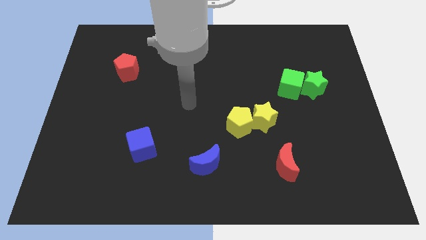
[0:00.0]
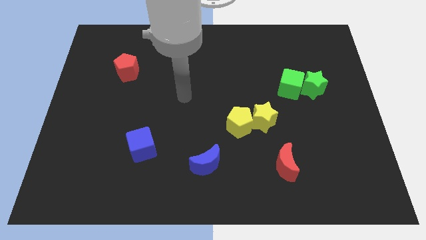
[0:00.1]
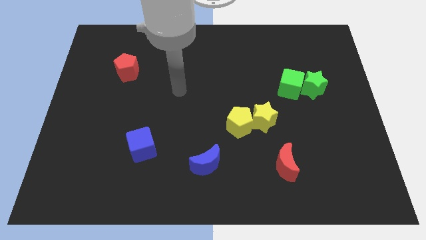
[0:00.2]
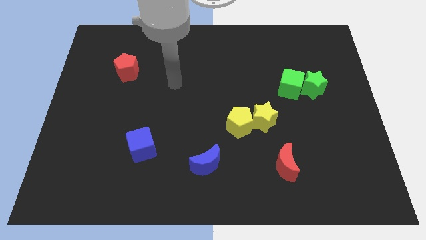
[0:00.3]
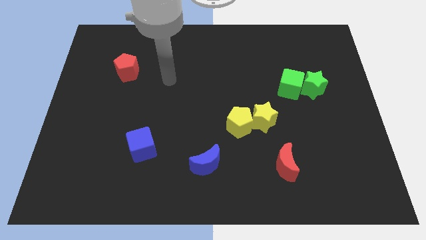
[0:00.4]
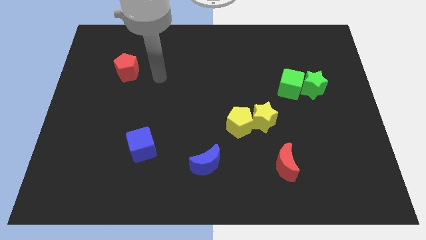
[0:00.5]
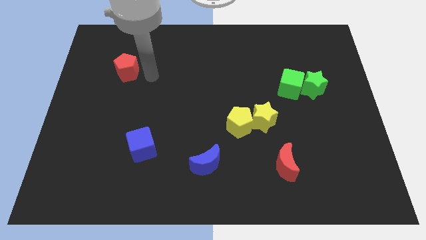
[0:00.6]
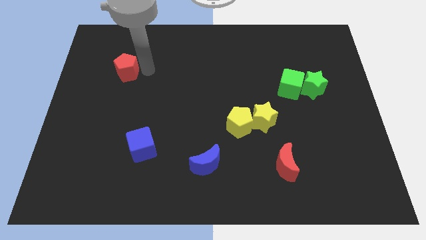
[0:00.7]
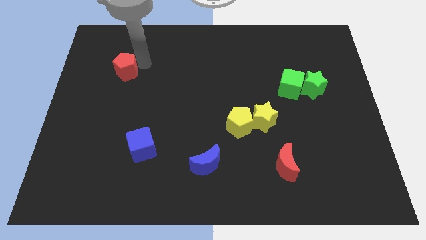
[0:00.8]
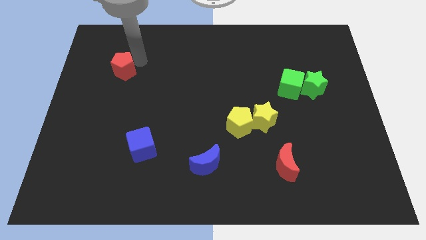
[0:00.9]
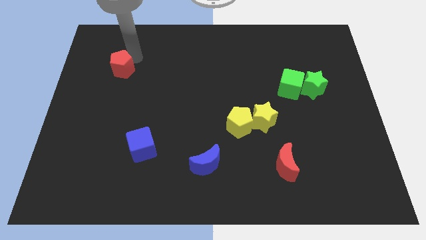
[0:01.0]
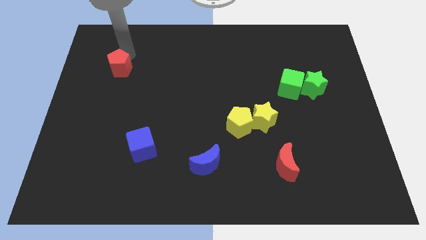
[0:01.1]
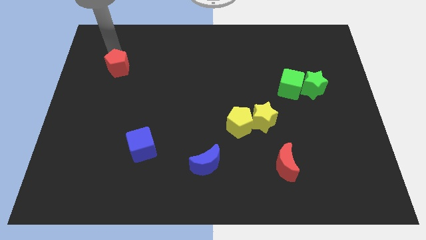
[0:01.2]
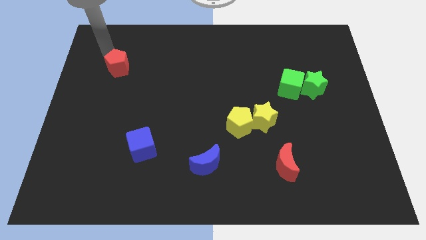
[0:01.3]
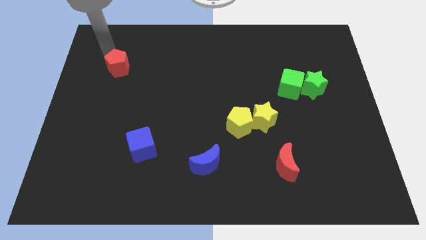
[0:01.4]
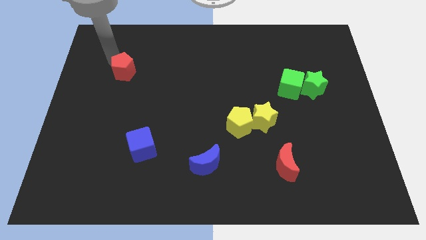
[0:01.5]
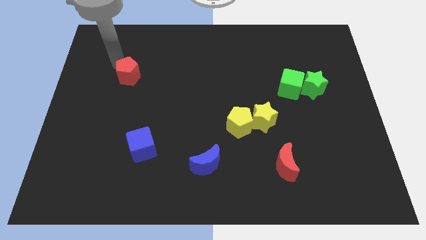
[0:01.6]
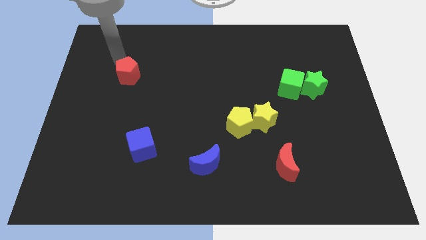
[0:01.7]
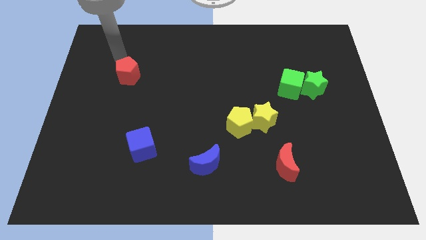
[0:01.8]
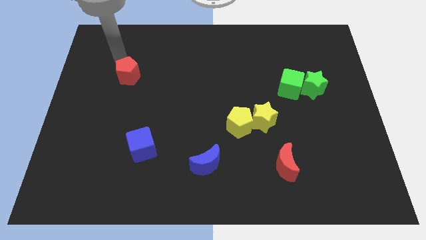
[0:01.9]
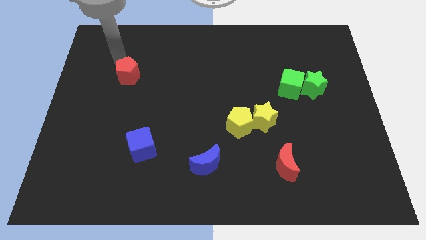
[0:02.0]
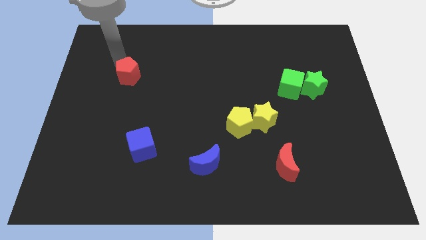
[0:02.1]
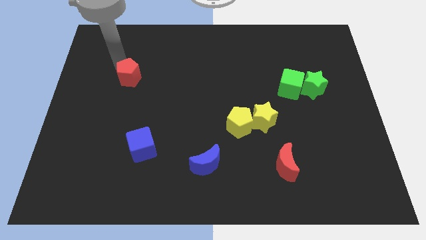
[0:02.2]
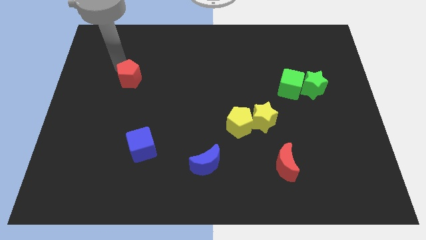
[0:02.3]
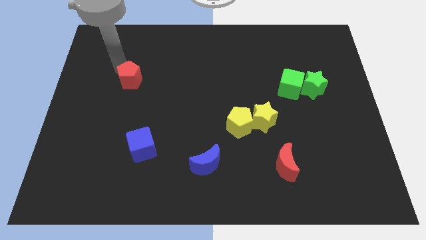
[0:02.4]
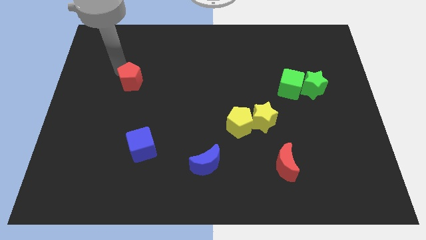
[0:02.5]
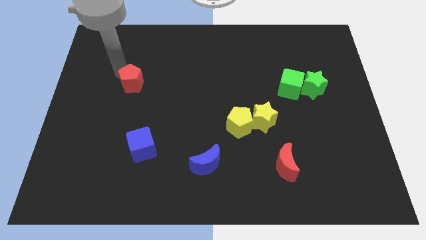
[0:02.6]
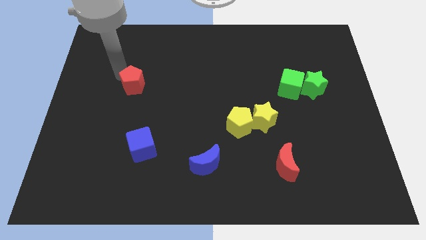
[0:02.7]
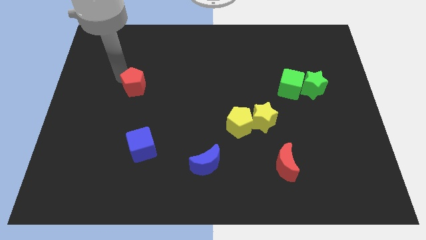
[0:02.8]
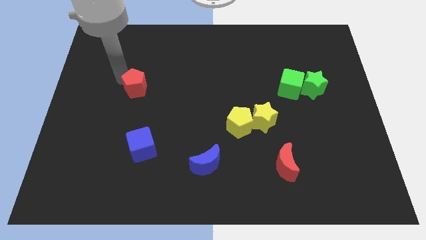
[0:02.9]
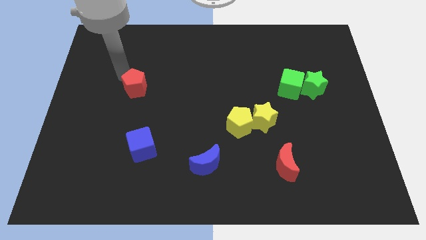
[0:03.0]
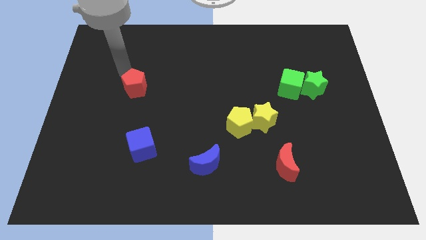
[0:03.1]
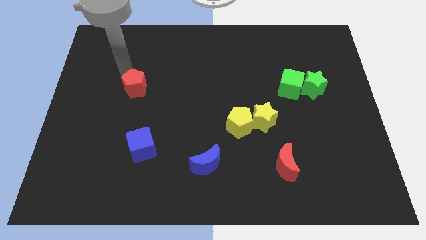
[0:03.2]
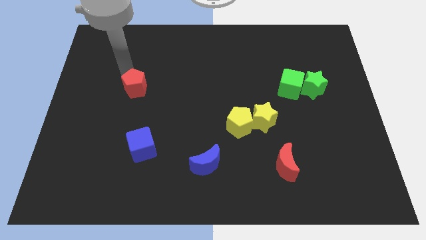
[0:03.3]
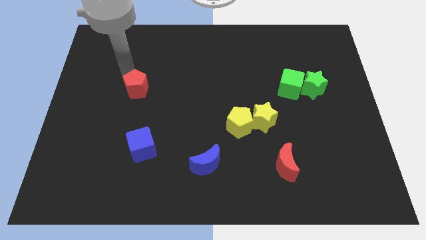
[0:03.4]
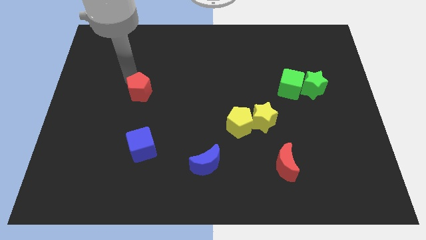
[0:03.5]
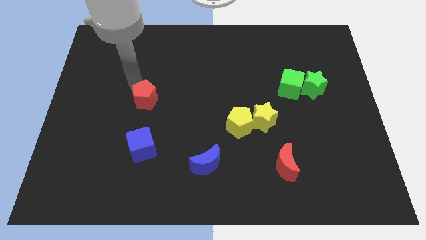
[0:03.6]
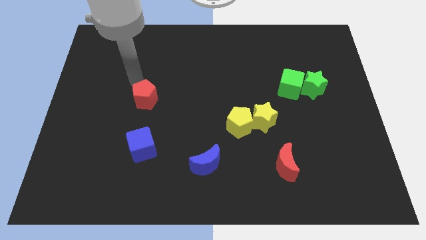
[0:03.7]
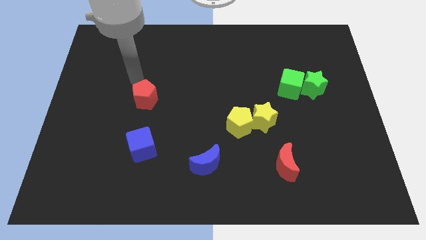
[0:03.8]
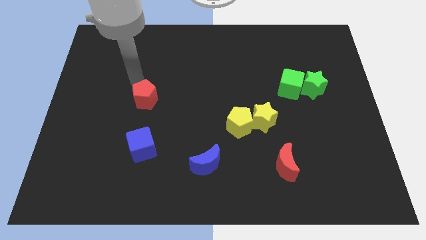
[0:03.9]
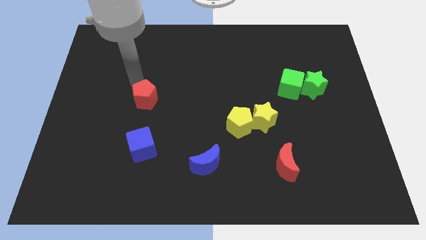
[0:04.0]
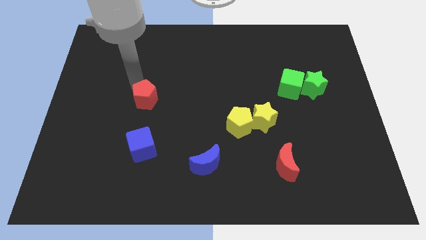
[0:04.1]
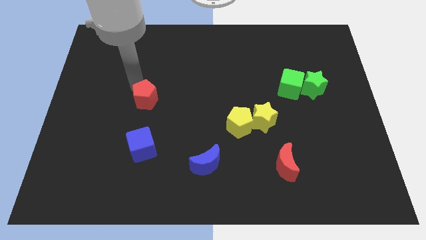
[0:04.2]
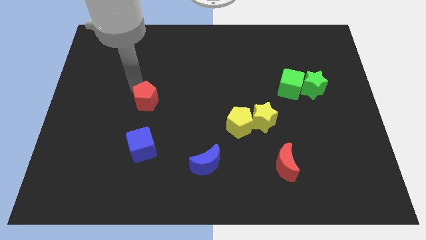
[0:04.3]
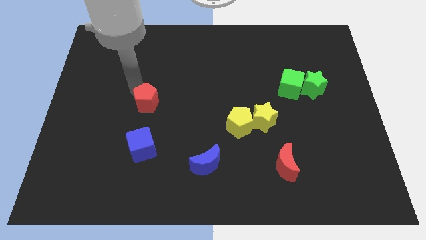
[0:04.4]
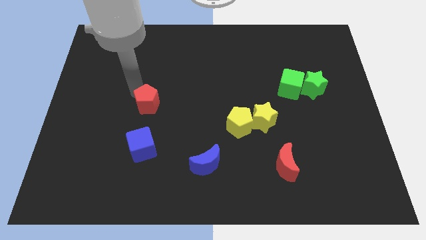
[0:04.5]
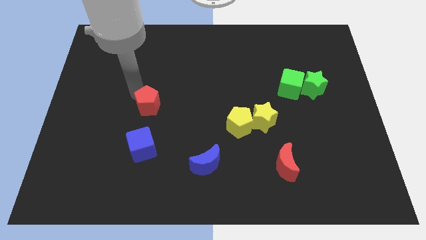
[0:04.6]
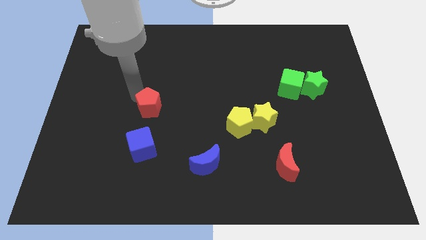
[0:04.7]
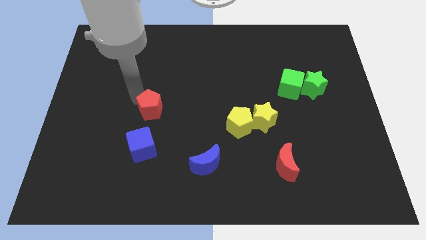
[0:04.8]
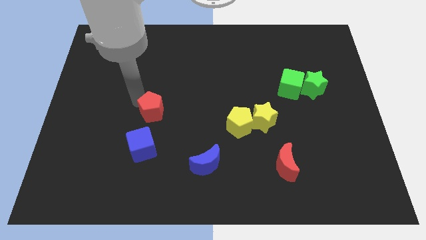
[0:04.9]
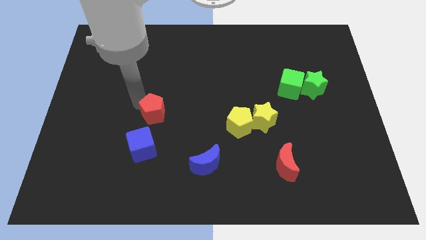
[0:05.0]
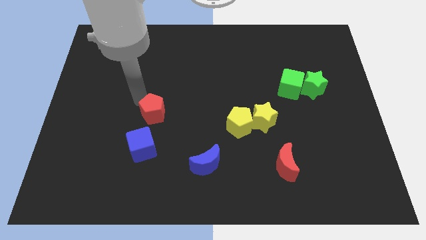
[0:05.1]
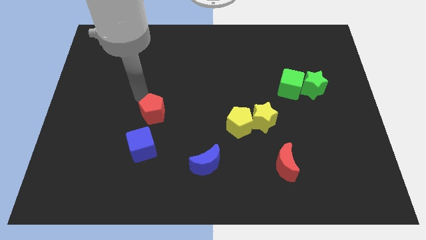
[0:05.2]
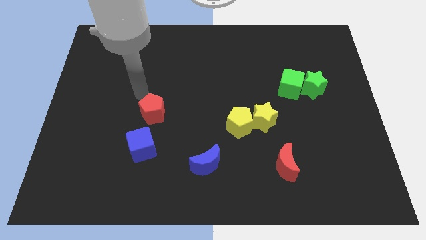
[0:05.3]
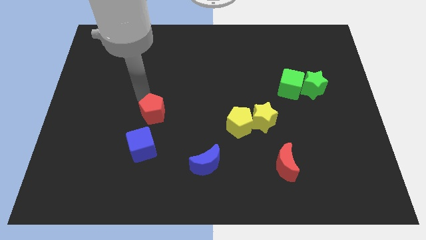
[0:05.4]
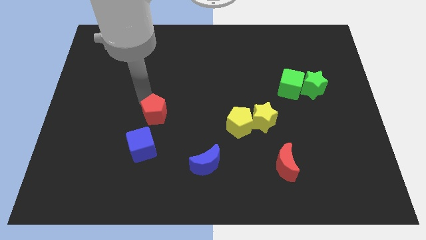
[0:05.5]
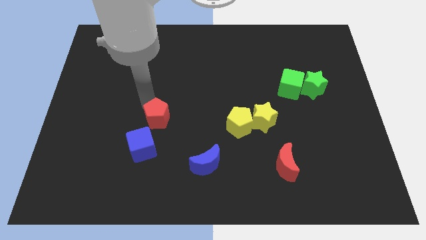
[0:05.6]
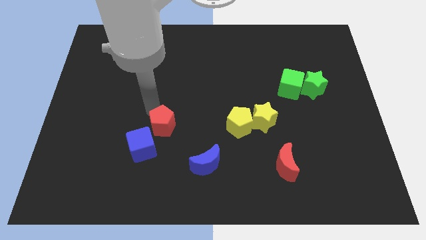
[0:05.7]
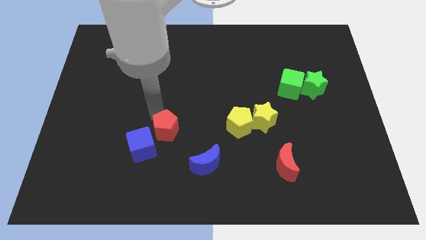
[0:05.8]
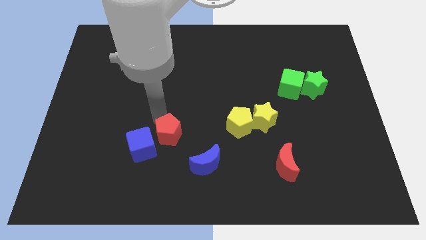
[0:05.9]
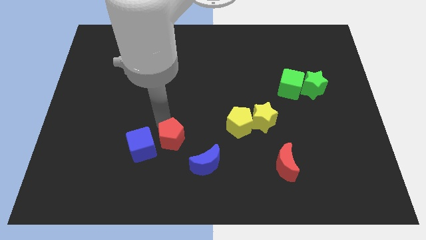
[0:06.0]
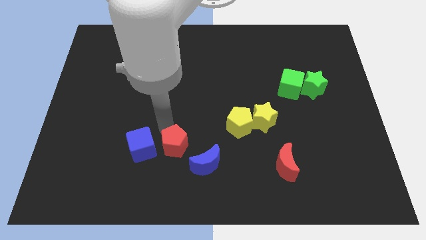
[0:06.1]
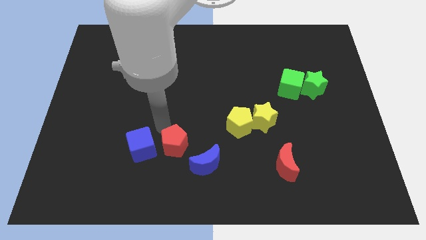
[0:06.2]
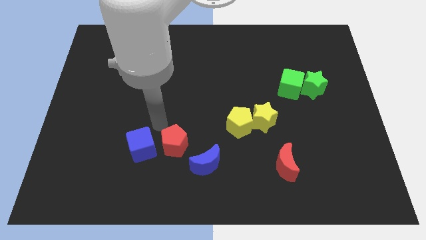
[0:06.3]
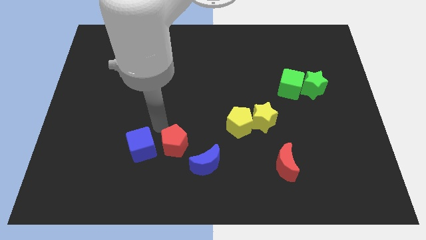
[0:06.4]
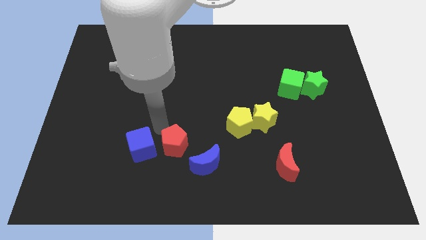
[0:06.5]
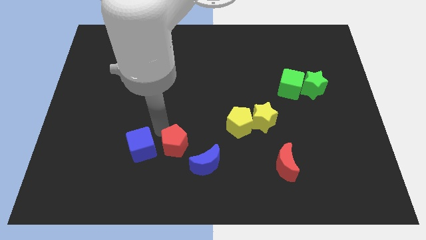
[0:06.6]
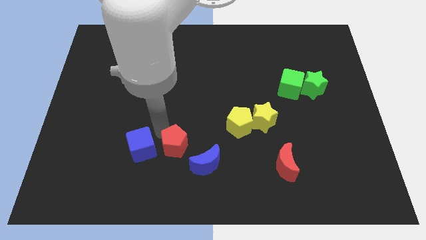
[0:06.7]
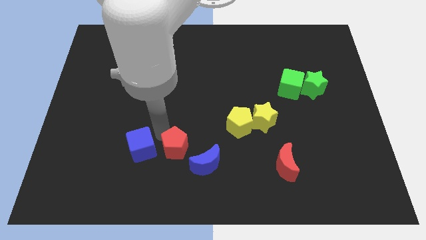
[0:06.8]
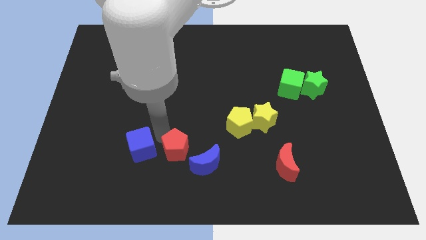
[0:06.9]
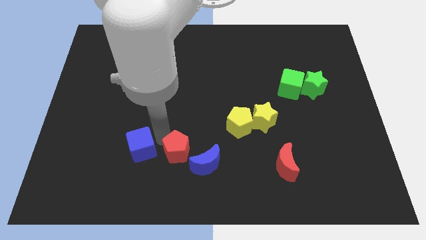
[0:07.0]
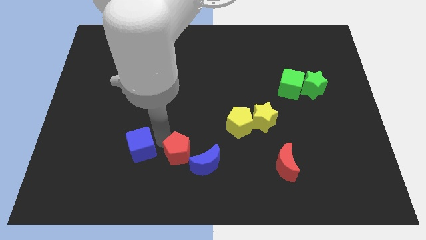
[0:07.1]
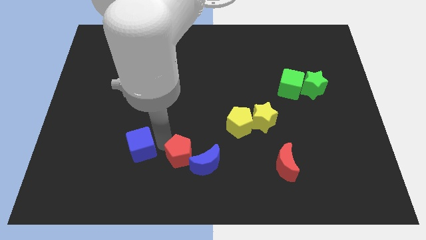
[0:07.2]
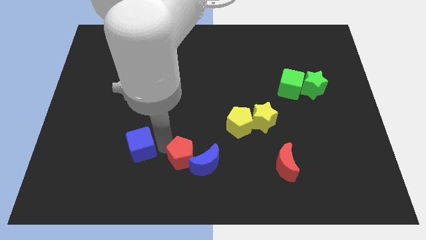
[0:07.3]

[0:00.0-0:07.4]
move the red pentagon close to the blue moon
